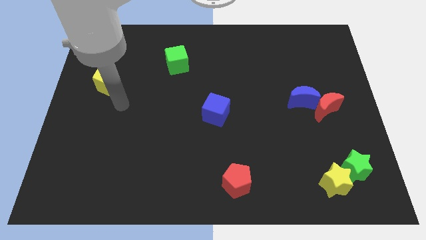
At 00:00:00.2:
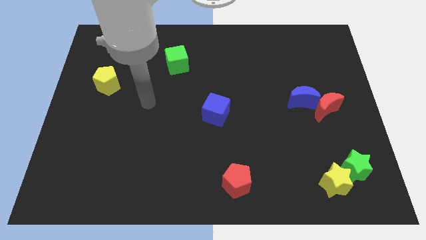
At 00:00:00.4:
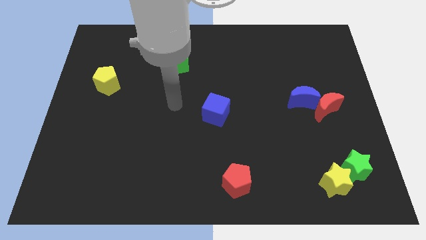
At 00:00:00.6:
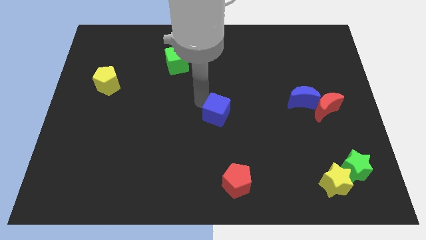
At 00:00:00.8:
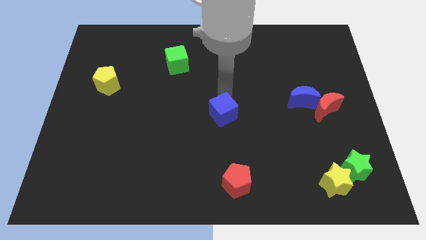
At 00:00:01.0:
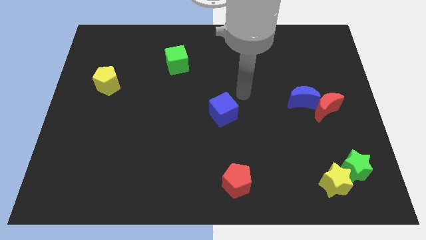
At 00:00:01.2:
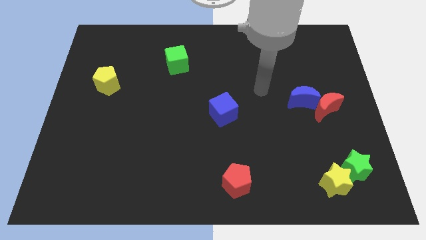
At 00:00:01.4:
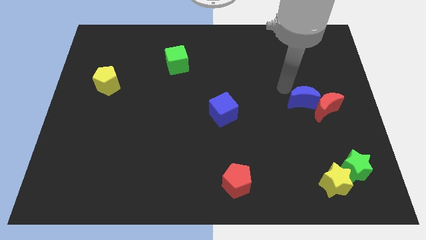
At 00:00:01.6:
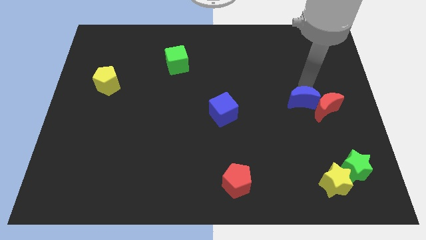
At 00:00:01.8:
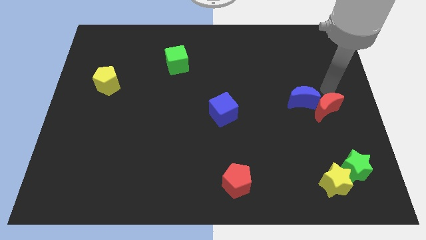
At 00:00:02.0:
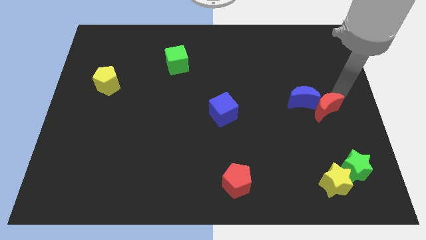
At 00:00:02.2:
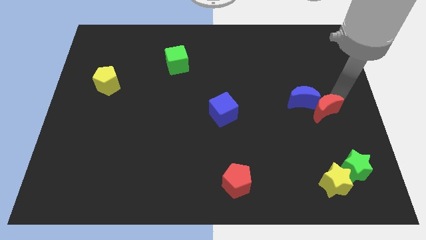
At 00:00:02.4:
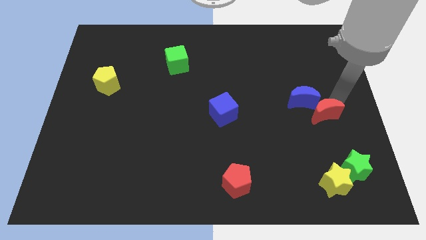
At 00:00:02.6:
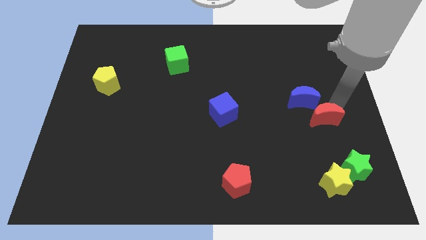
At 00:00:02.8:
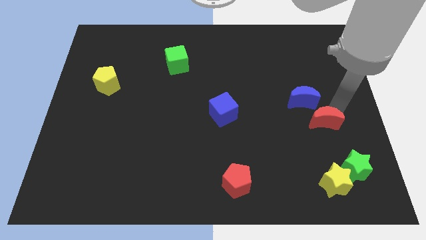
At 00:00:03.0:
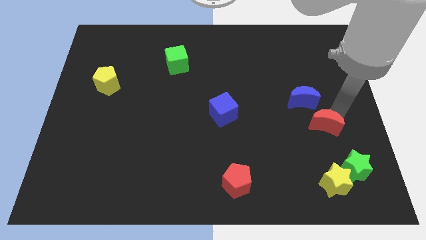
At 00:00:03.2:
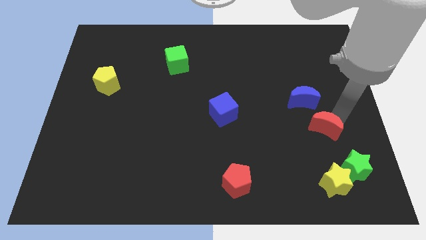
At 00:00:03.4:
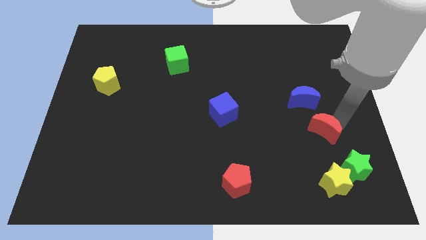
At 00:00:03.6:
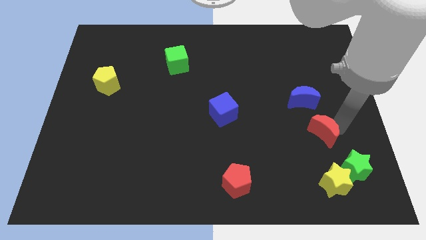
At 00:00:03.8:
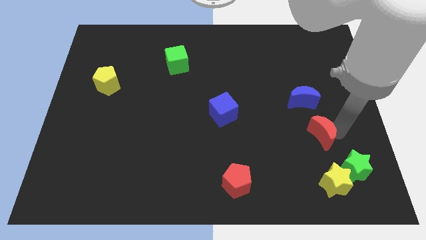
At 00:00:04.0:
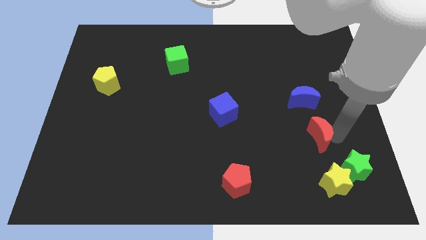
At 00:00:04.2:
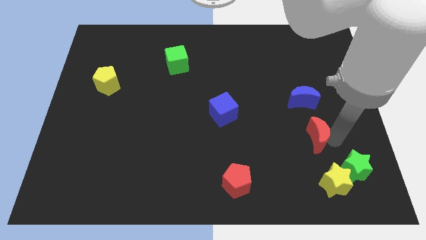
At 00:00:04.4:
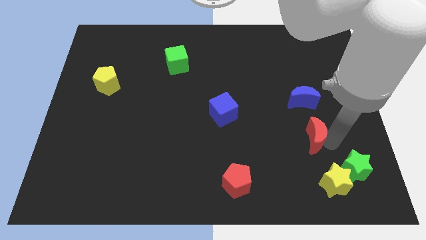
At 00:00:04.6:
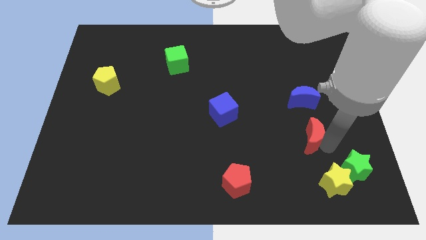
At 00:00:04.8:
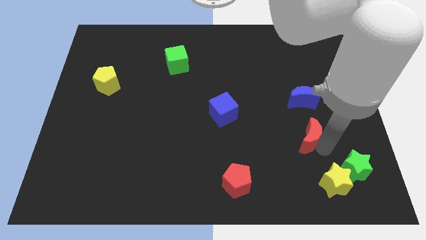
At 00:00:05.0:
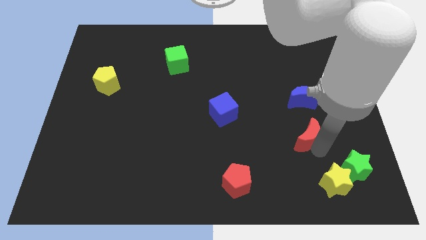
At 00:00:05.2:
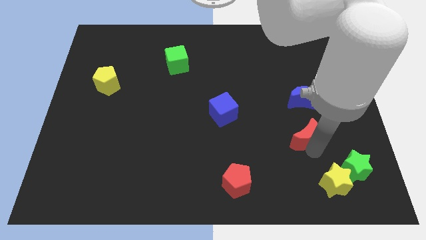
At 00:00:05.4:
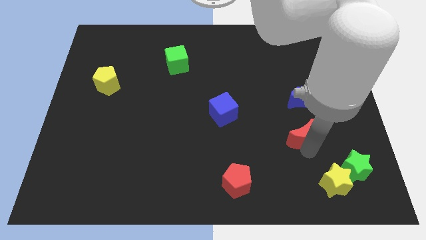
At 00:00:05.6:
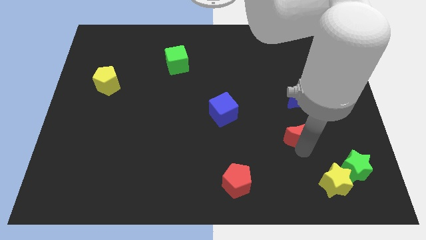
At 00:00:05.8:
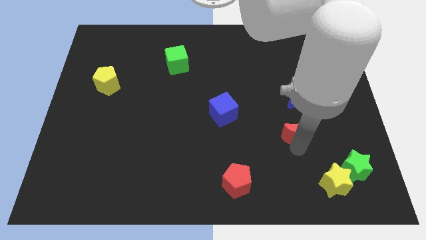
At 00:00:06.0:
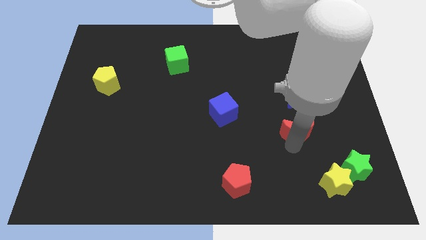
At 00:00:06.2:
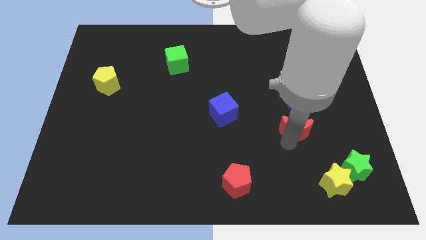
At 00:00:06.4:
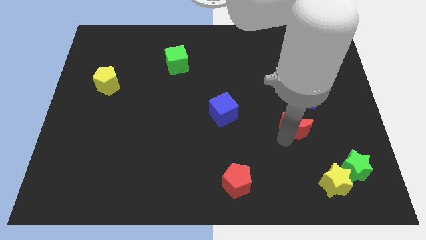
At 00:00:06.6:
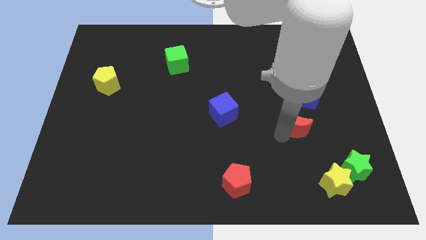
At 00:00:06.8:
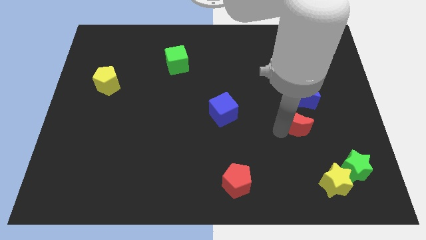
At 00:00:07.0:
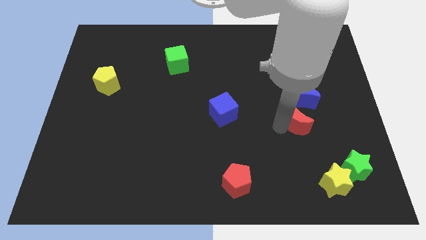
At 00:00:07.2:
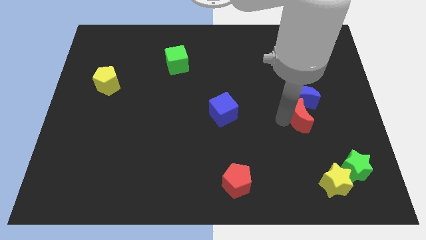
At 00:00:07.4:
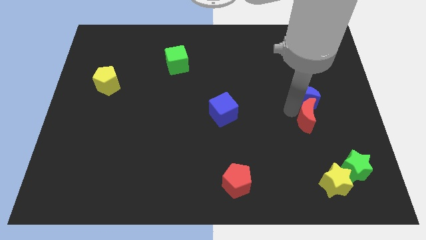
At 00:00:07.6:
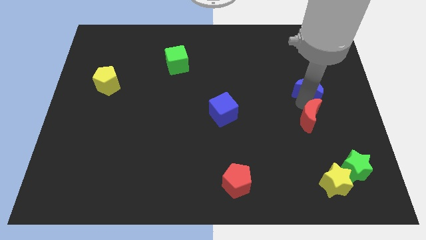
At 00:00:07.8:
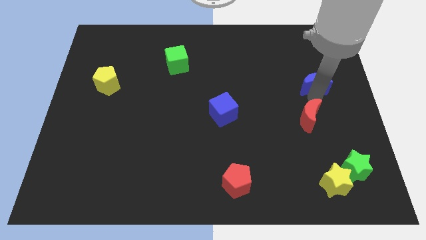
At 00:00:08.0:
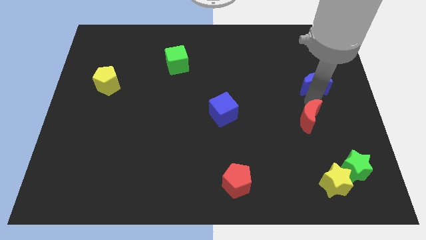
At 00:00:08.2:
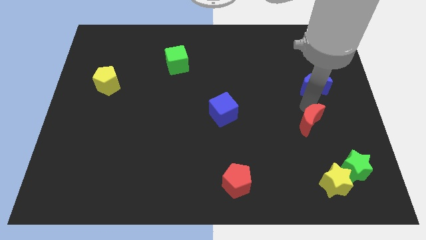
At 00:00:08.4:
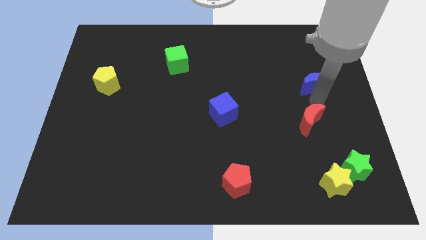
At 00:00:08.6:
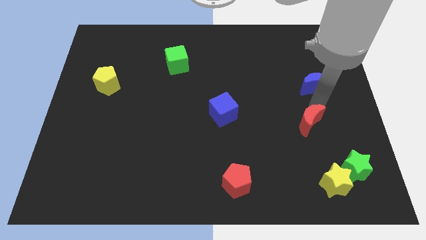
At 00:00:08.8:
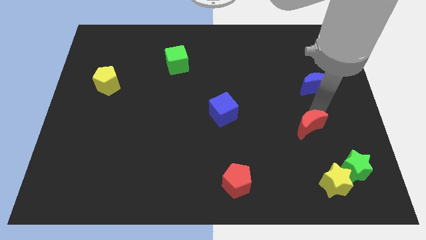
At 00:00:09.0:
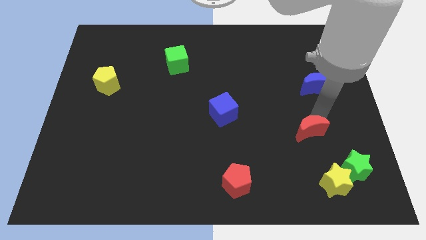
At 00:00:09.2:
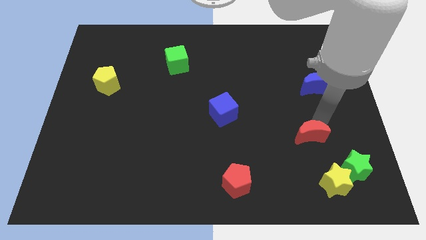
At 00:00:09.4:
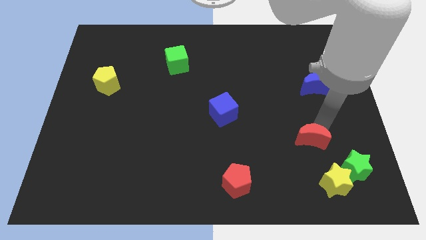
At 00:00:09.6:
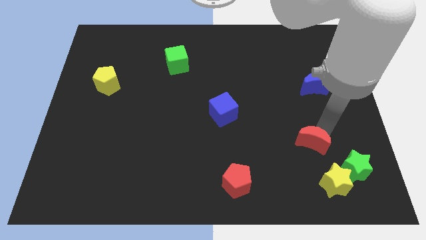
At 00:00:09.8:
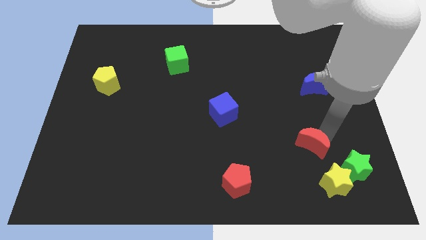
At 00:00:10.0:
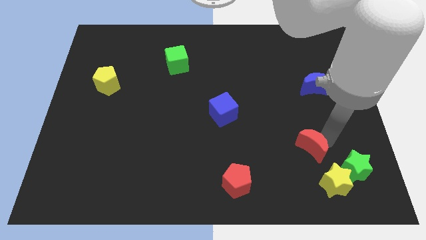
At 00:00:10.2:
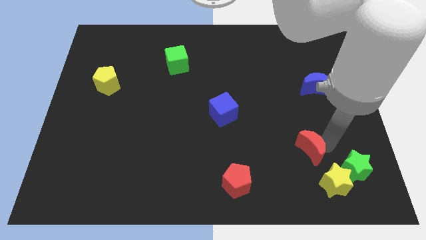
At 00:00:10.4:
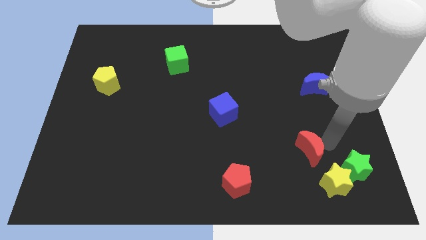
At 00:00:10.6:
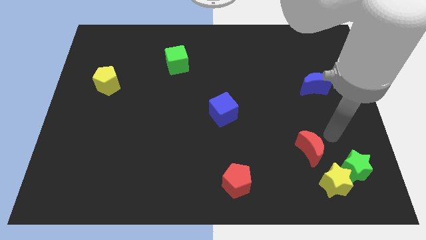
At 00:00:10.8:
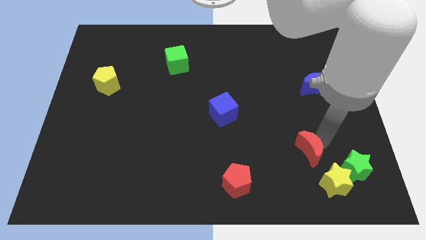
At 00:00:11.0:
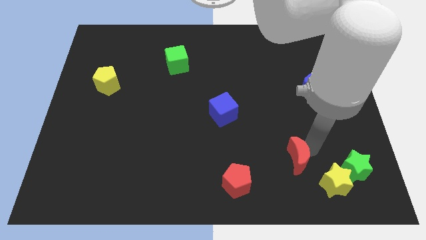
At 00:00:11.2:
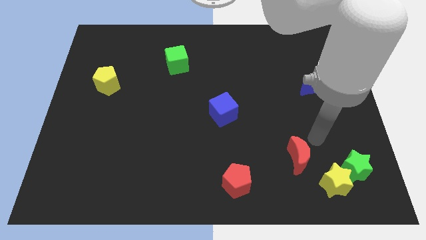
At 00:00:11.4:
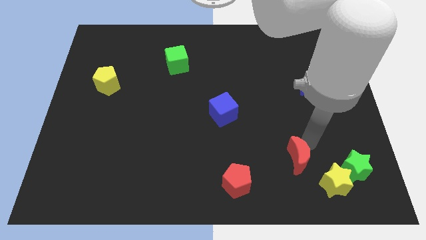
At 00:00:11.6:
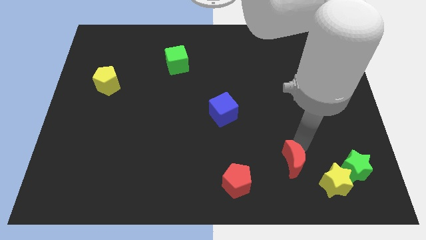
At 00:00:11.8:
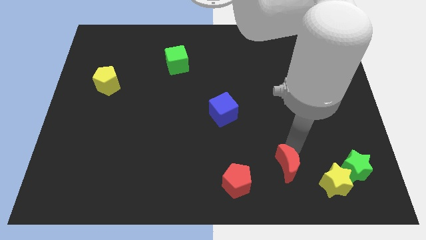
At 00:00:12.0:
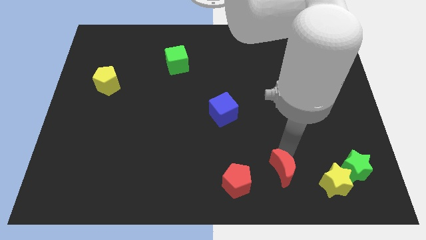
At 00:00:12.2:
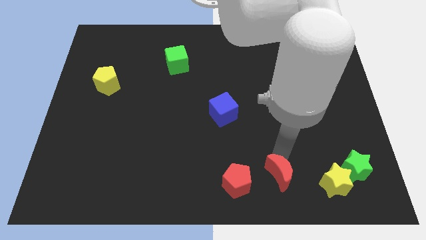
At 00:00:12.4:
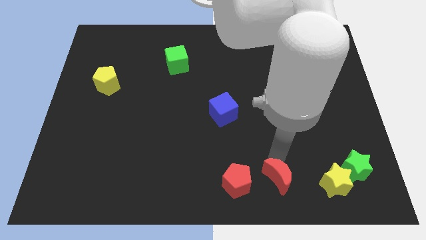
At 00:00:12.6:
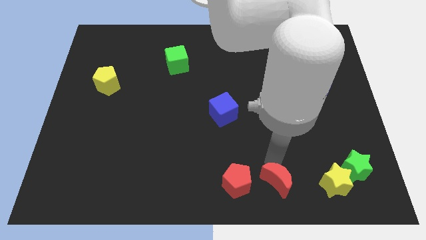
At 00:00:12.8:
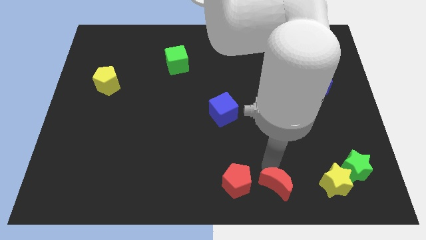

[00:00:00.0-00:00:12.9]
push the red moon to the bottom
